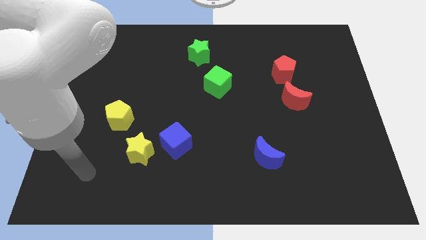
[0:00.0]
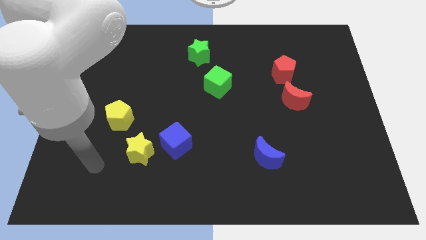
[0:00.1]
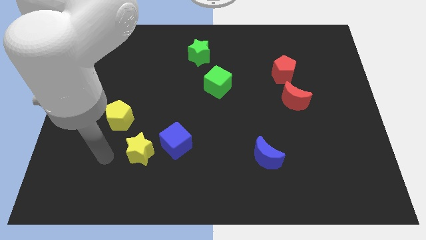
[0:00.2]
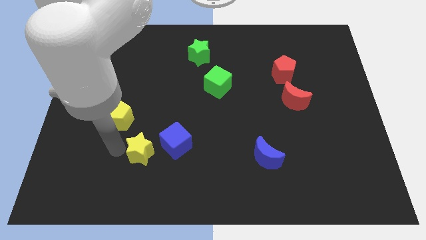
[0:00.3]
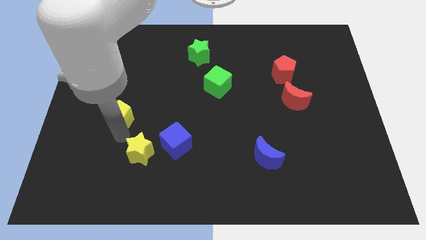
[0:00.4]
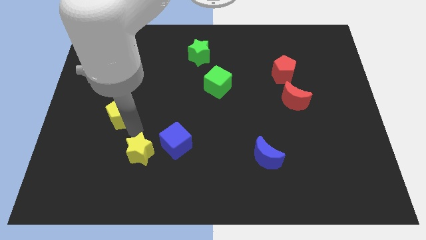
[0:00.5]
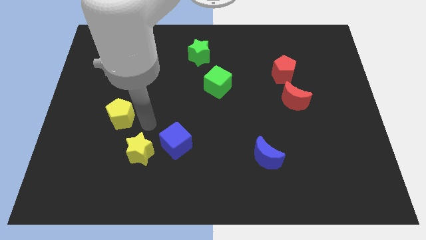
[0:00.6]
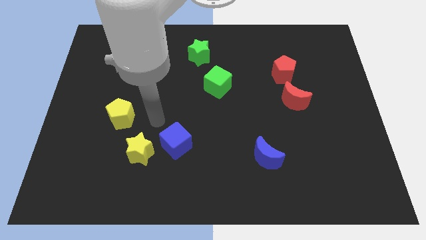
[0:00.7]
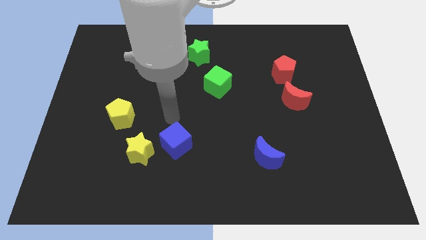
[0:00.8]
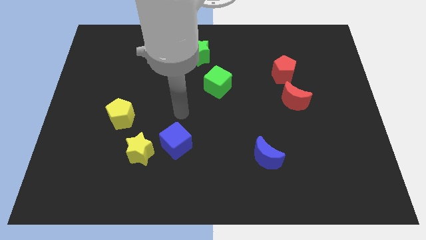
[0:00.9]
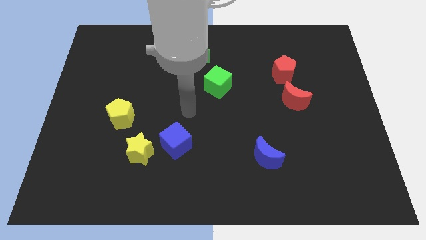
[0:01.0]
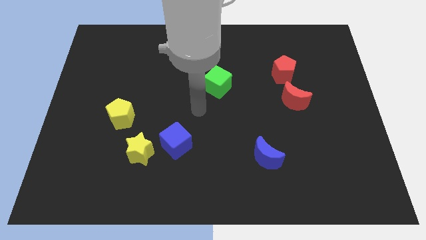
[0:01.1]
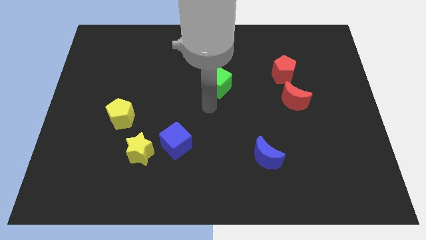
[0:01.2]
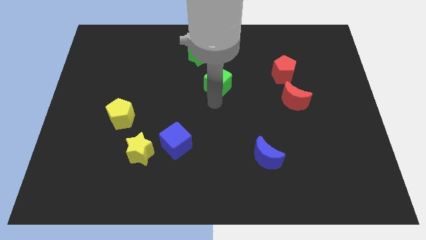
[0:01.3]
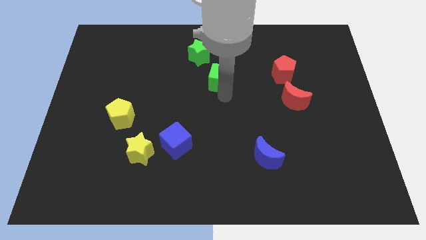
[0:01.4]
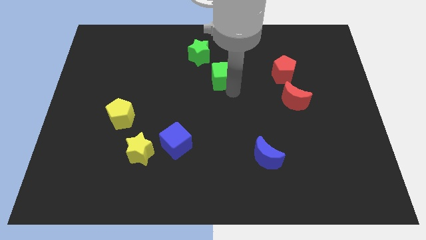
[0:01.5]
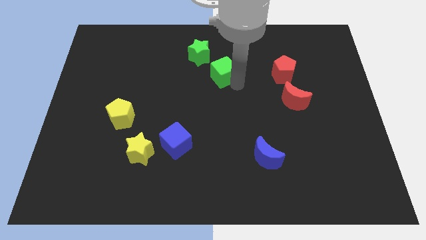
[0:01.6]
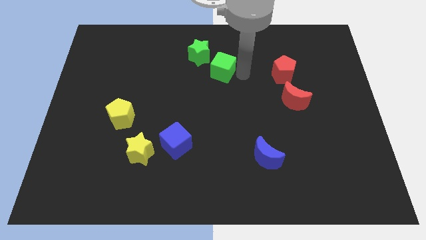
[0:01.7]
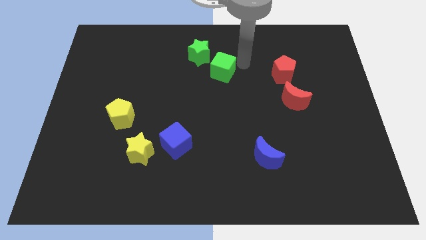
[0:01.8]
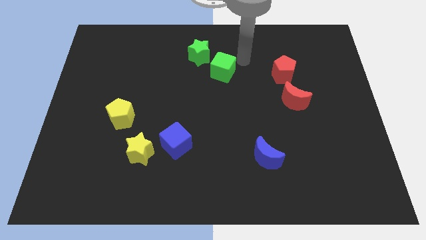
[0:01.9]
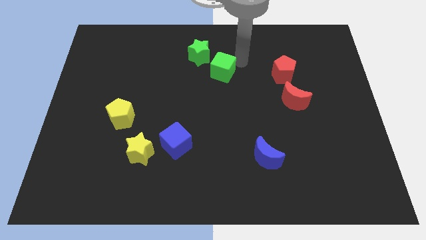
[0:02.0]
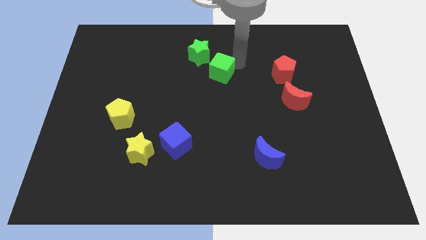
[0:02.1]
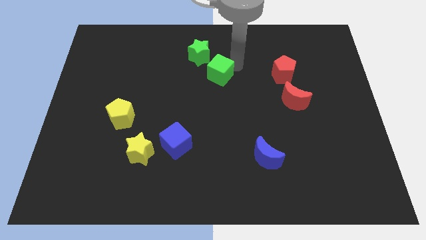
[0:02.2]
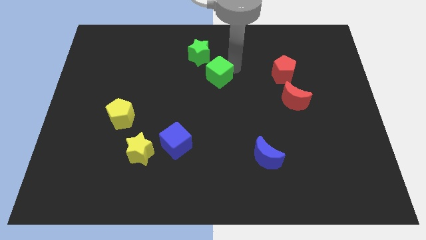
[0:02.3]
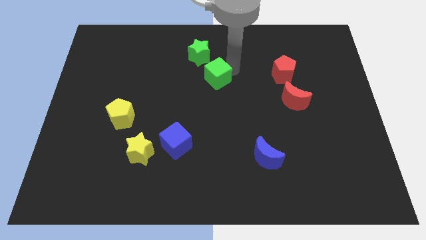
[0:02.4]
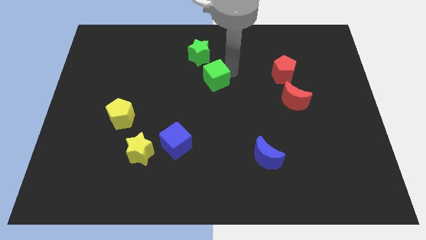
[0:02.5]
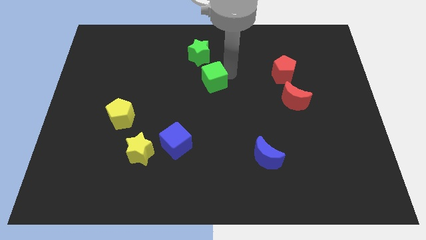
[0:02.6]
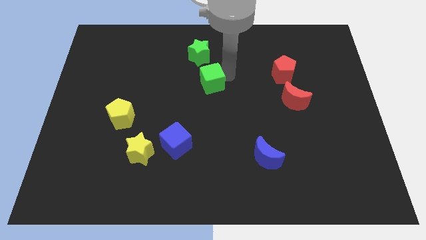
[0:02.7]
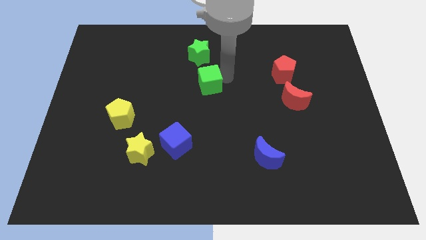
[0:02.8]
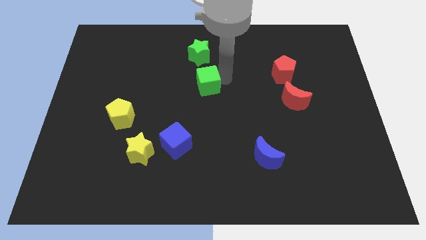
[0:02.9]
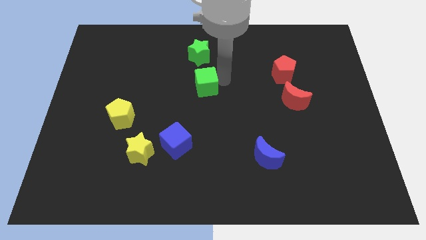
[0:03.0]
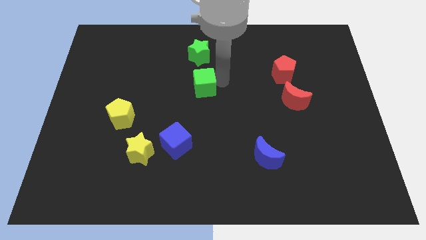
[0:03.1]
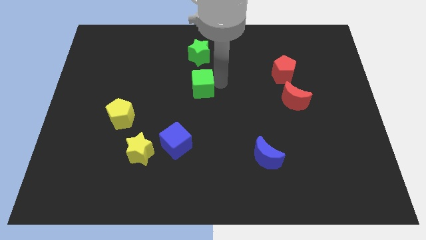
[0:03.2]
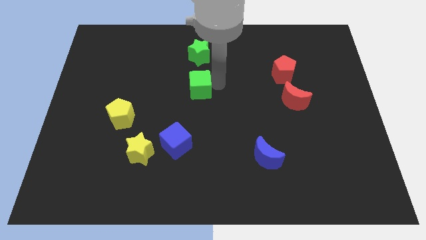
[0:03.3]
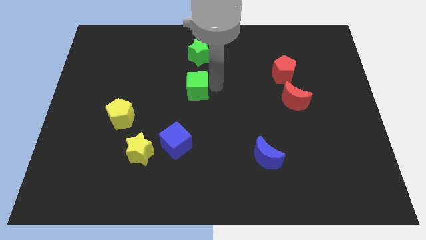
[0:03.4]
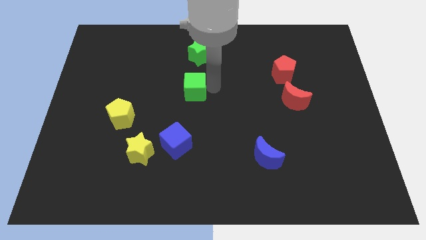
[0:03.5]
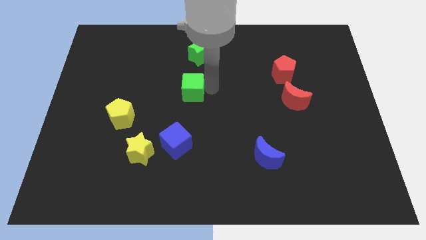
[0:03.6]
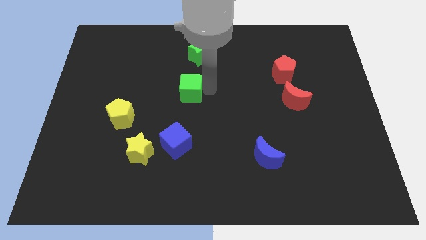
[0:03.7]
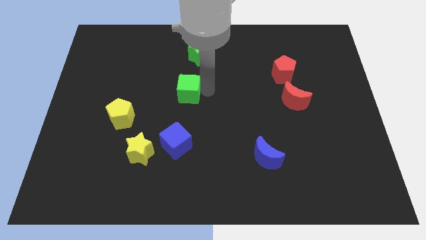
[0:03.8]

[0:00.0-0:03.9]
slightly push the green cube to the left

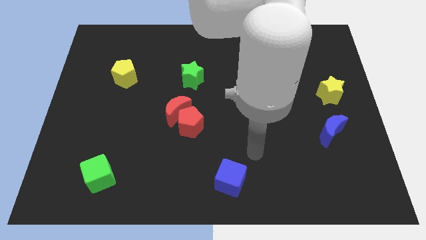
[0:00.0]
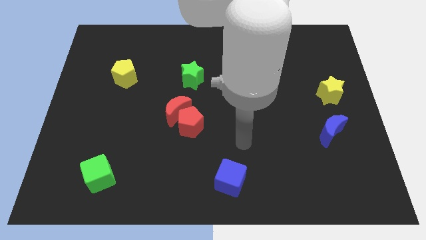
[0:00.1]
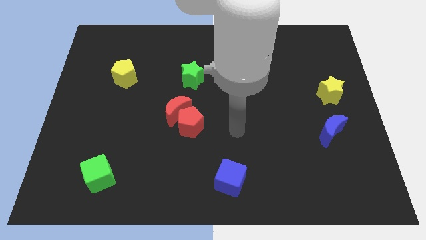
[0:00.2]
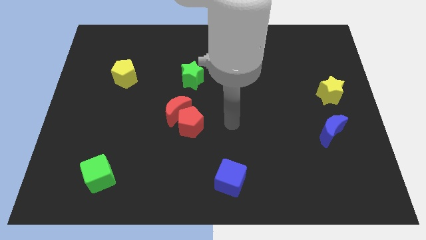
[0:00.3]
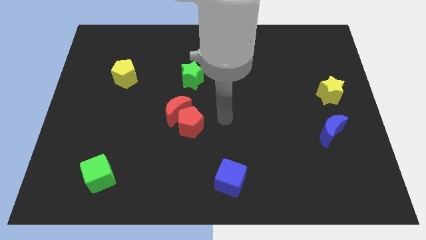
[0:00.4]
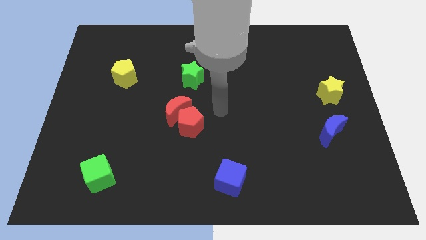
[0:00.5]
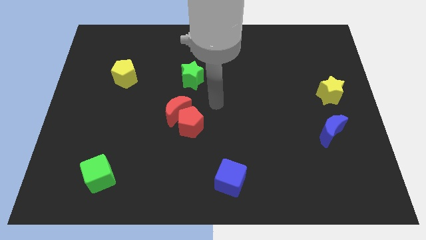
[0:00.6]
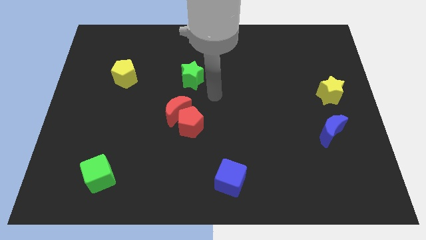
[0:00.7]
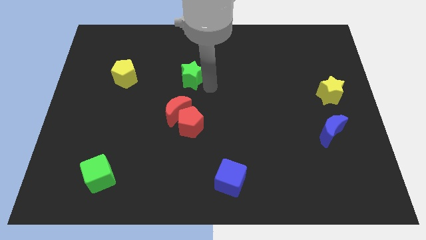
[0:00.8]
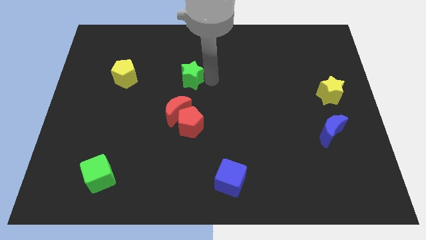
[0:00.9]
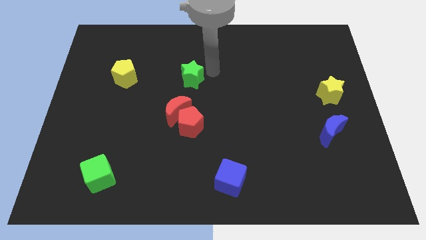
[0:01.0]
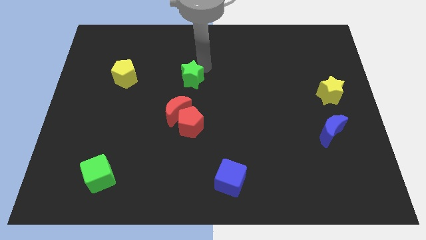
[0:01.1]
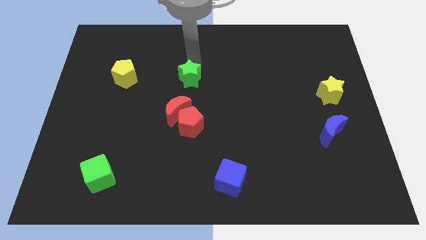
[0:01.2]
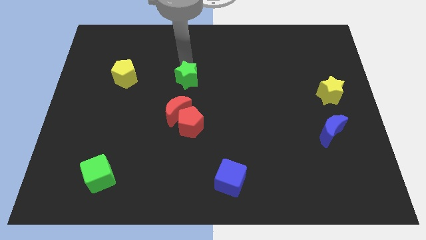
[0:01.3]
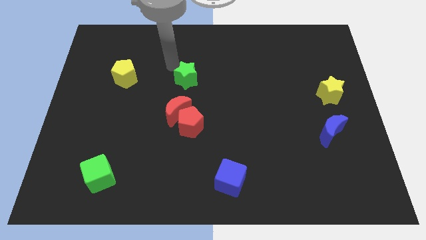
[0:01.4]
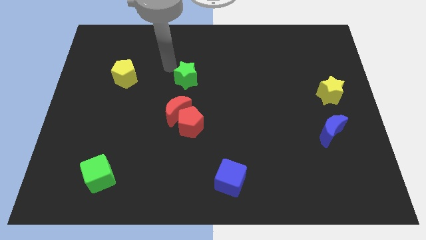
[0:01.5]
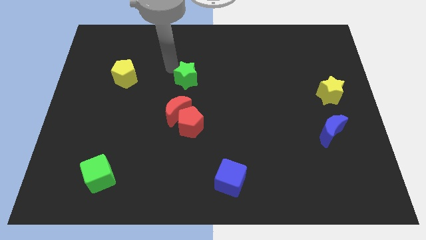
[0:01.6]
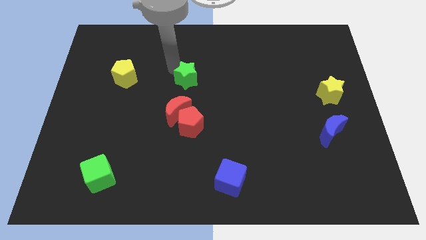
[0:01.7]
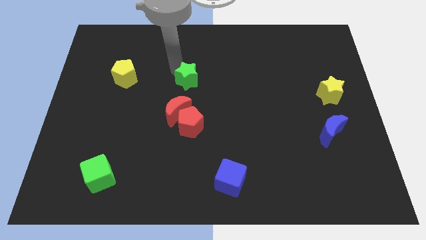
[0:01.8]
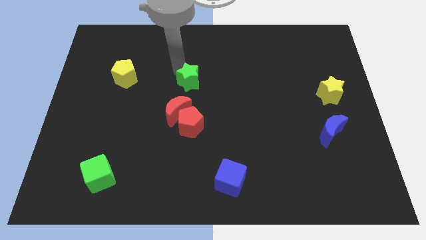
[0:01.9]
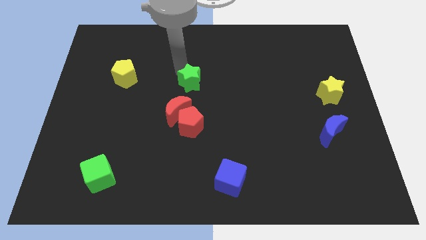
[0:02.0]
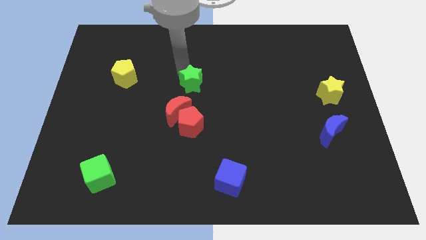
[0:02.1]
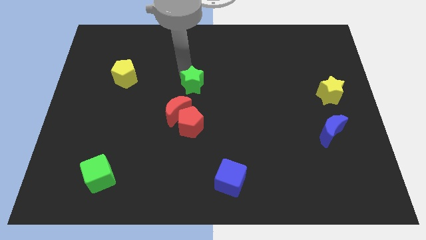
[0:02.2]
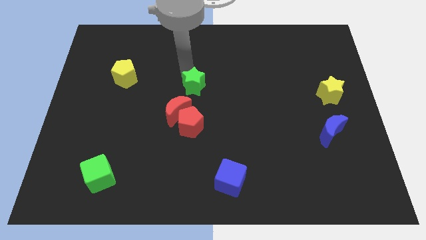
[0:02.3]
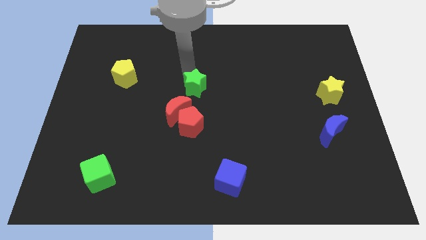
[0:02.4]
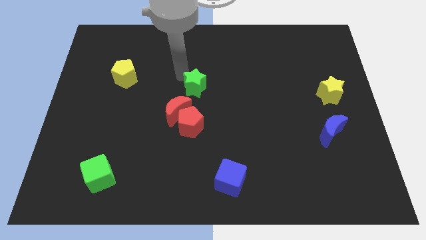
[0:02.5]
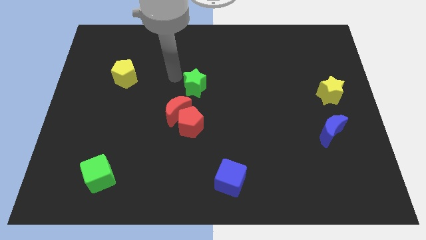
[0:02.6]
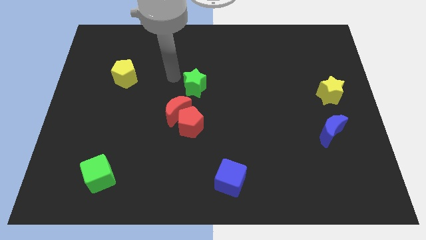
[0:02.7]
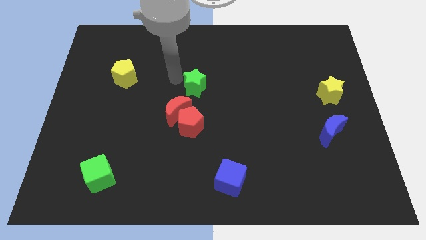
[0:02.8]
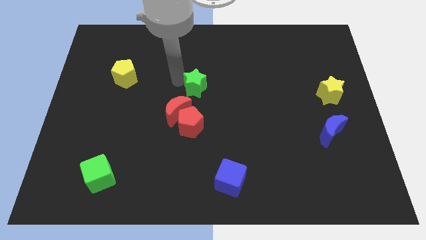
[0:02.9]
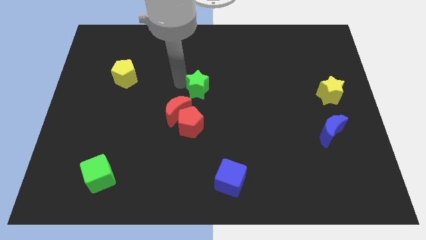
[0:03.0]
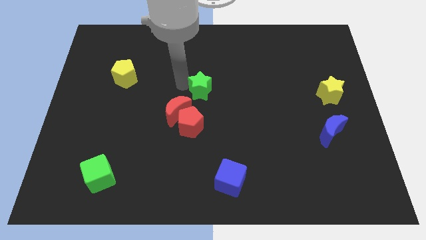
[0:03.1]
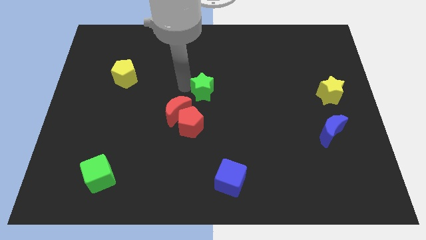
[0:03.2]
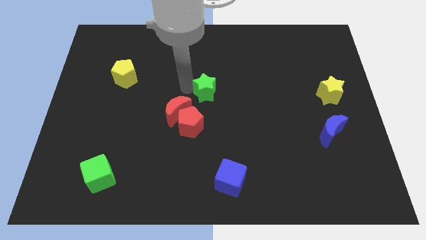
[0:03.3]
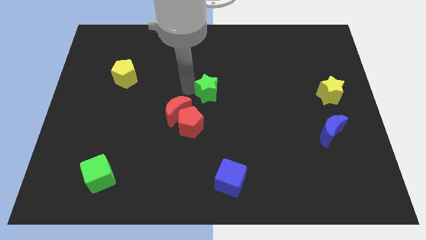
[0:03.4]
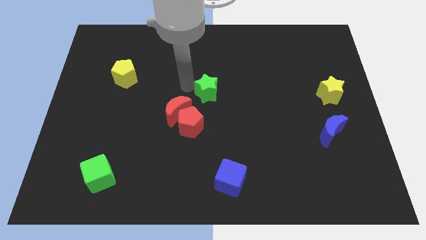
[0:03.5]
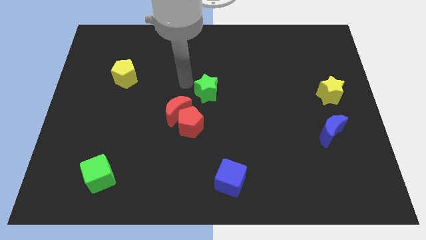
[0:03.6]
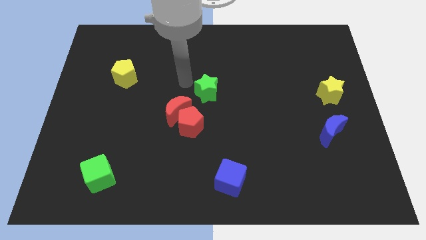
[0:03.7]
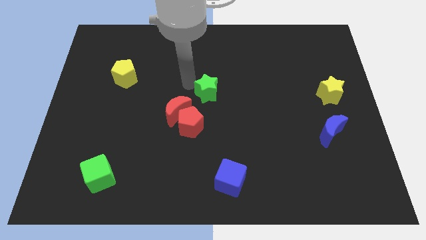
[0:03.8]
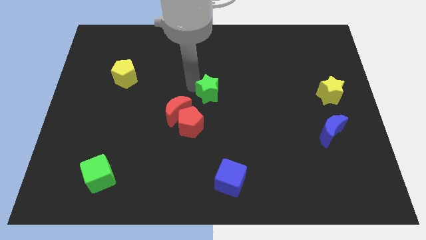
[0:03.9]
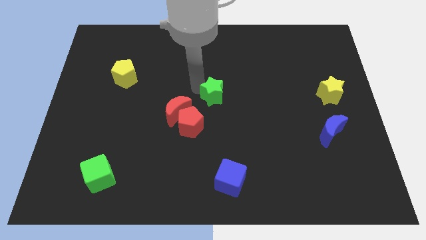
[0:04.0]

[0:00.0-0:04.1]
slide the green star a bit down and then right
